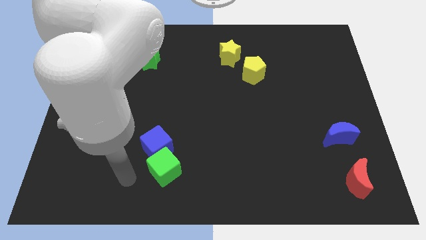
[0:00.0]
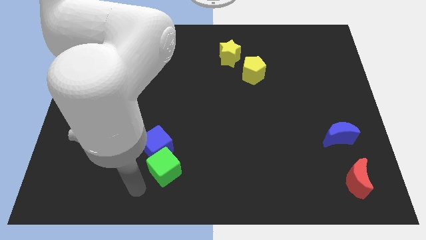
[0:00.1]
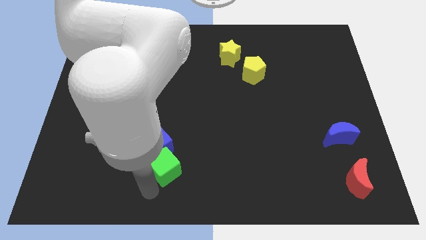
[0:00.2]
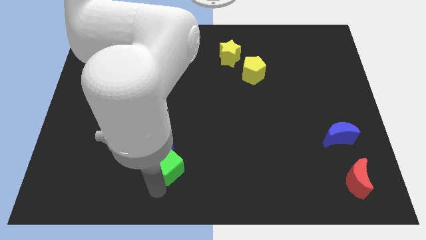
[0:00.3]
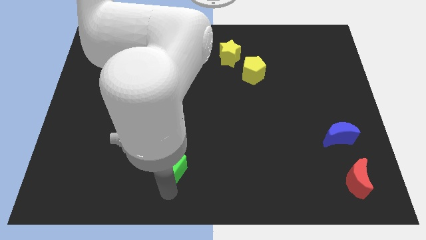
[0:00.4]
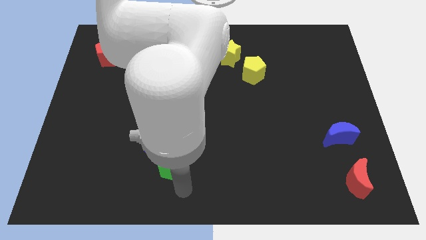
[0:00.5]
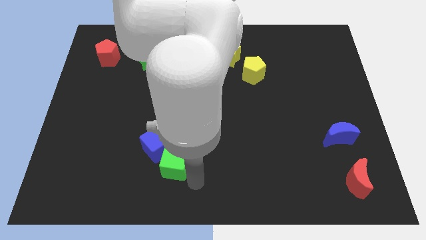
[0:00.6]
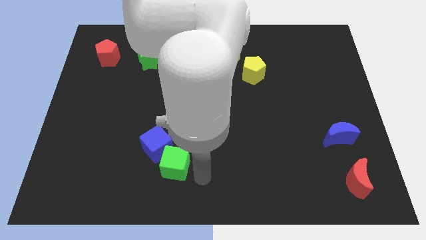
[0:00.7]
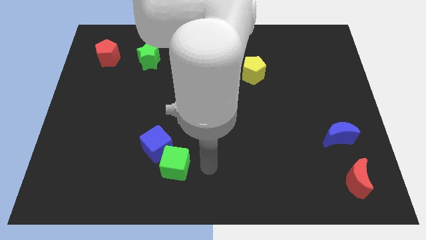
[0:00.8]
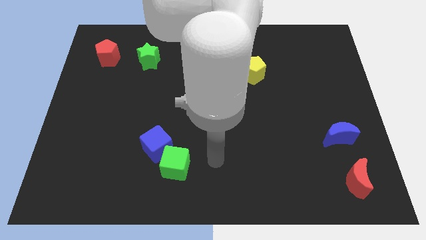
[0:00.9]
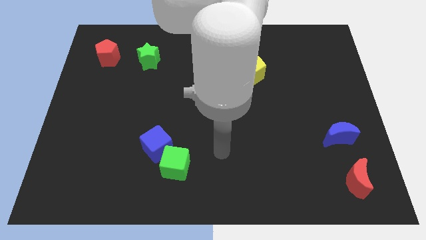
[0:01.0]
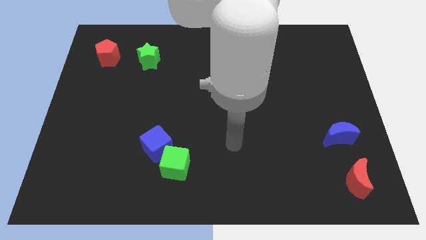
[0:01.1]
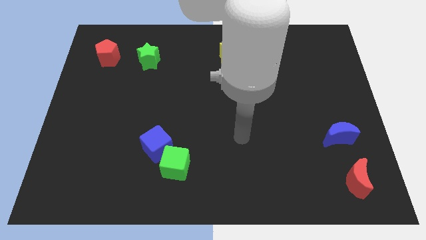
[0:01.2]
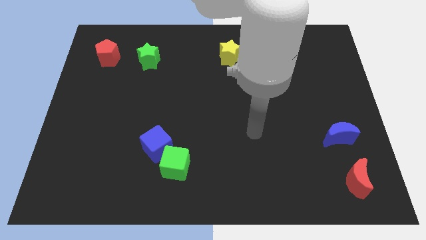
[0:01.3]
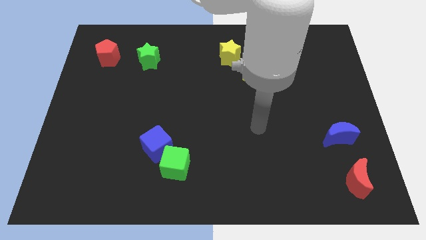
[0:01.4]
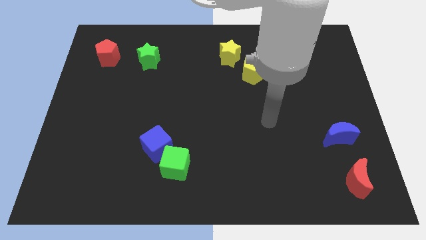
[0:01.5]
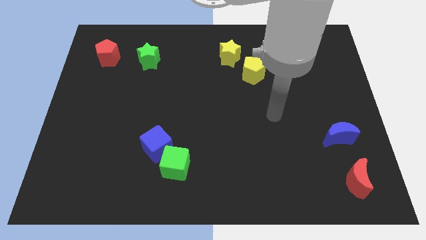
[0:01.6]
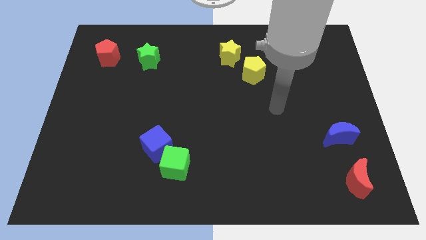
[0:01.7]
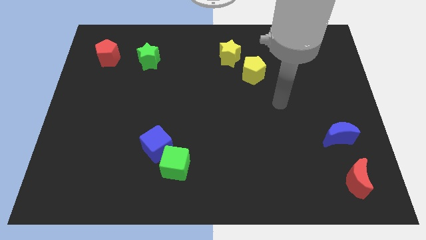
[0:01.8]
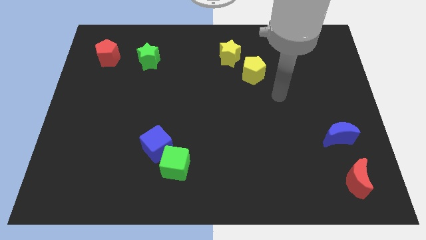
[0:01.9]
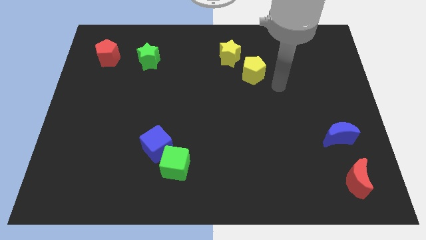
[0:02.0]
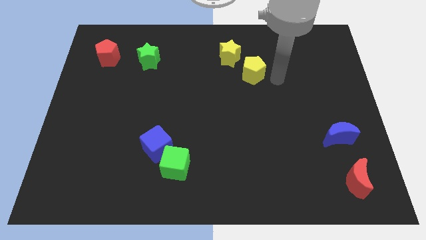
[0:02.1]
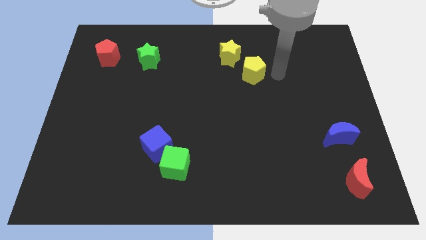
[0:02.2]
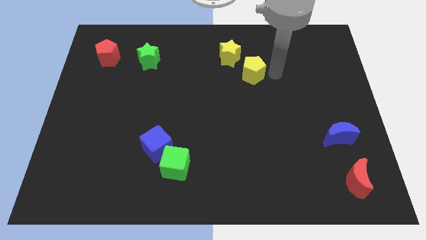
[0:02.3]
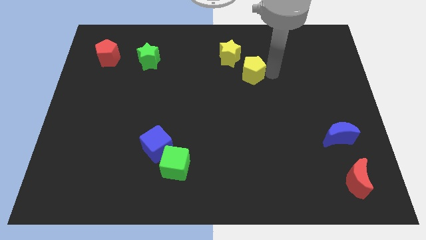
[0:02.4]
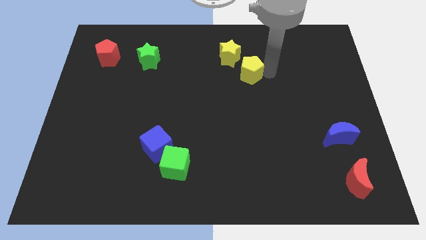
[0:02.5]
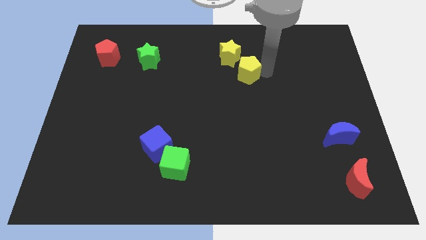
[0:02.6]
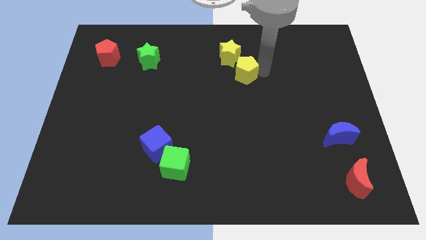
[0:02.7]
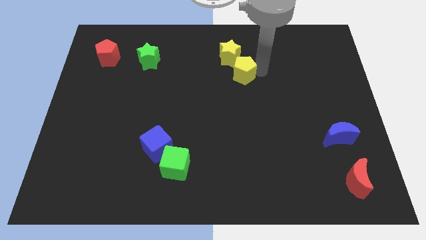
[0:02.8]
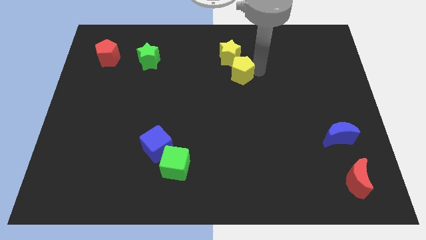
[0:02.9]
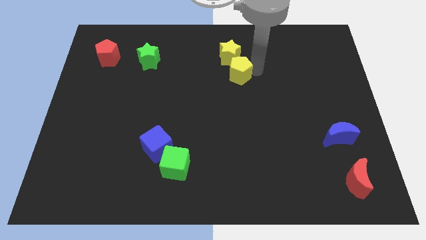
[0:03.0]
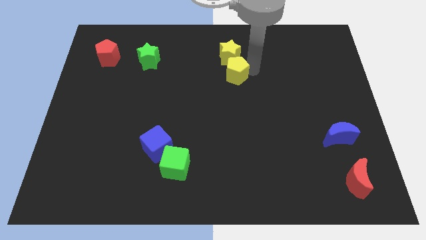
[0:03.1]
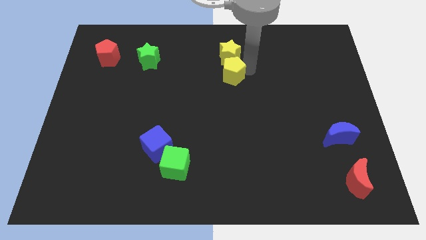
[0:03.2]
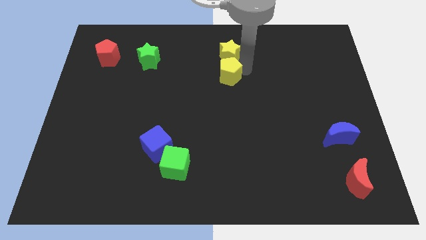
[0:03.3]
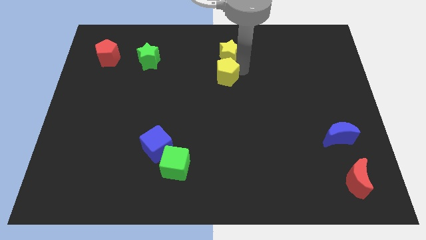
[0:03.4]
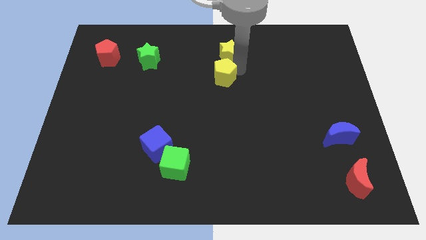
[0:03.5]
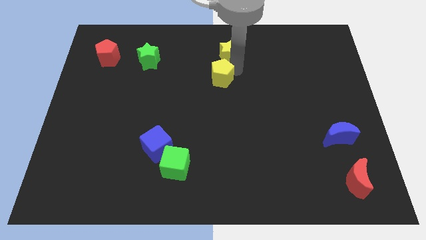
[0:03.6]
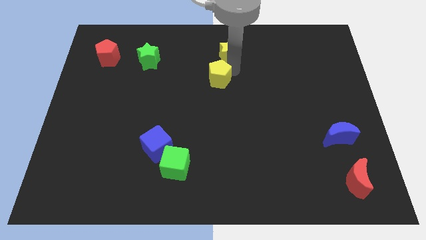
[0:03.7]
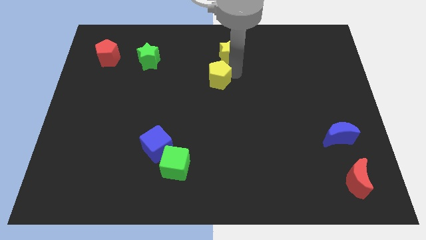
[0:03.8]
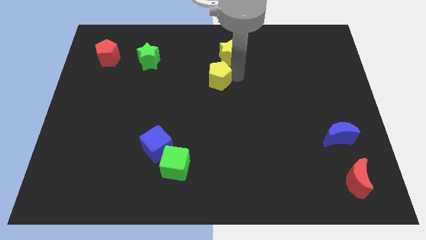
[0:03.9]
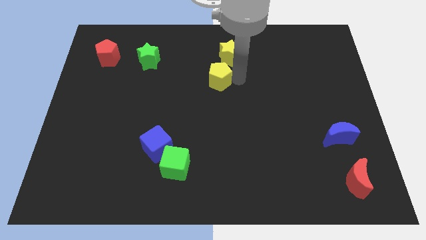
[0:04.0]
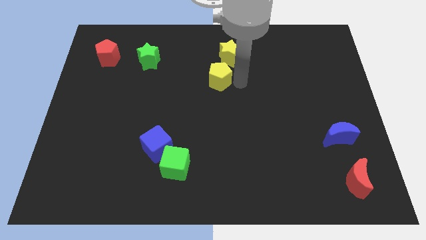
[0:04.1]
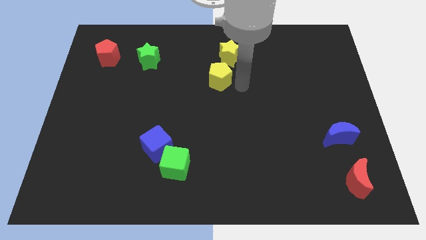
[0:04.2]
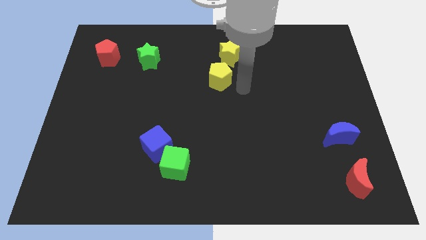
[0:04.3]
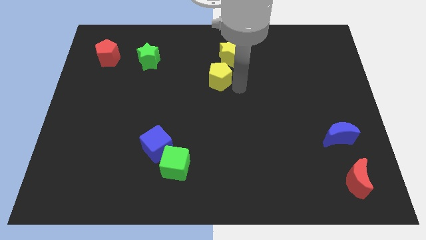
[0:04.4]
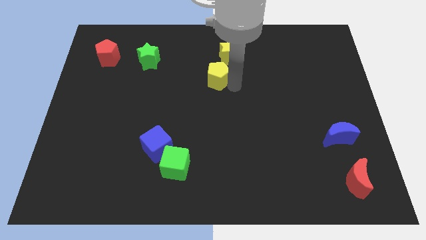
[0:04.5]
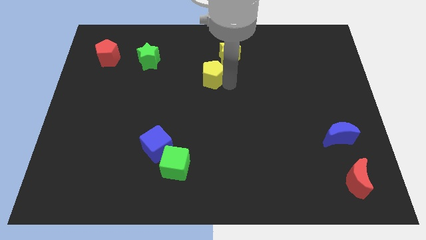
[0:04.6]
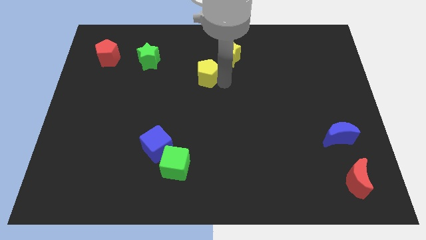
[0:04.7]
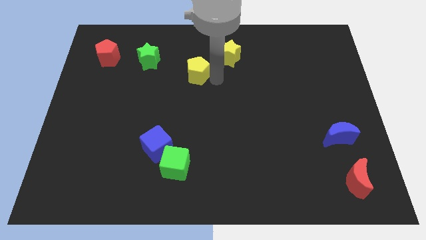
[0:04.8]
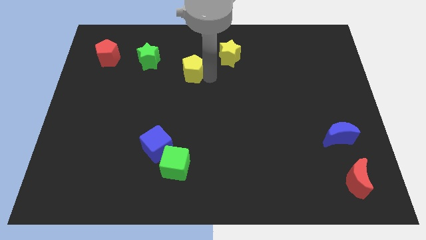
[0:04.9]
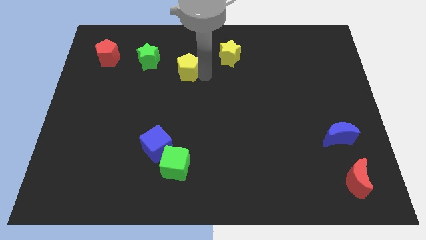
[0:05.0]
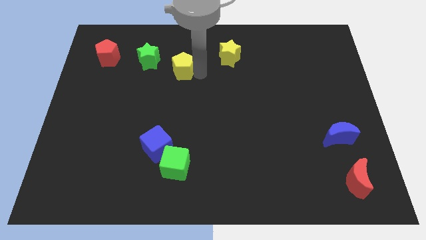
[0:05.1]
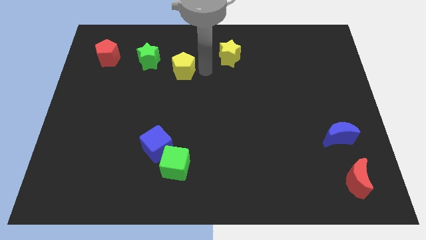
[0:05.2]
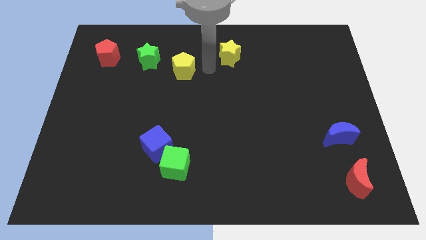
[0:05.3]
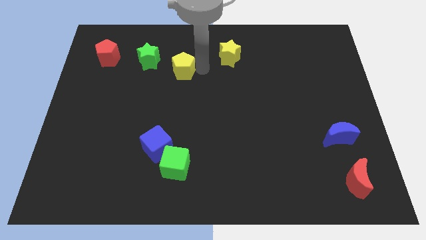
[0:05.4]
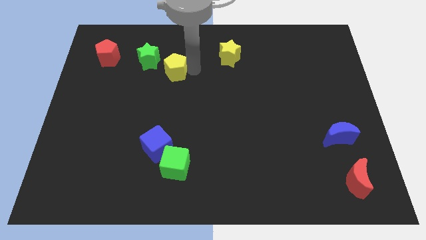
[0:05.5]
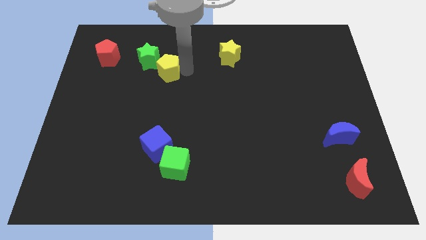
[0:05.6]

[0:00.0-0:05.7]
slide the yellow pentagon to the left

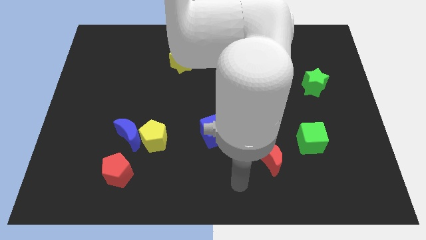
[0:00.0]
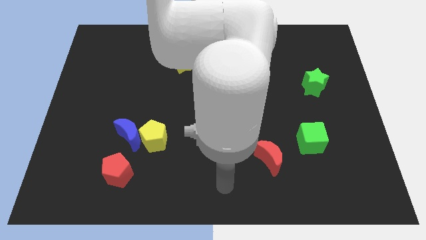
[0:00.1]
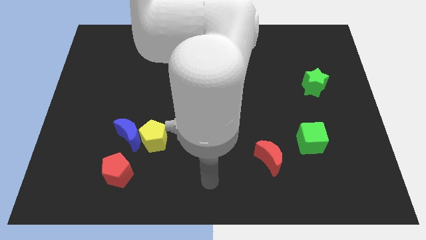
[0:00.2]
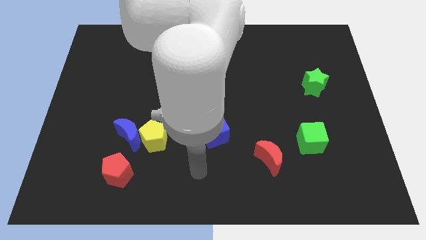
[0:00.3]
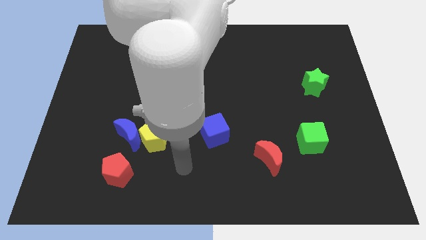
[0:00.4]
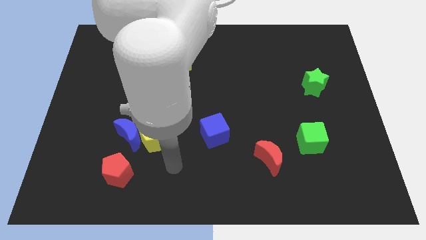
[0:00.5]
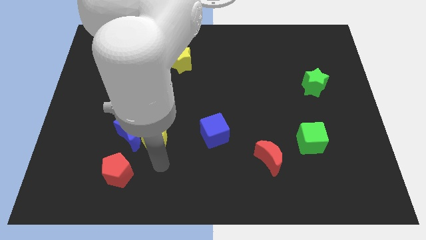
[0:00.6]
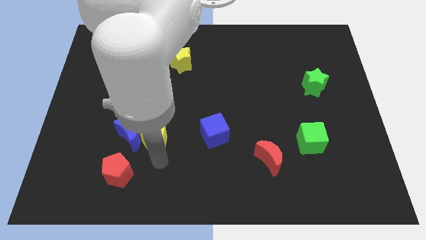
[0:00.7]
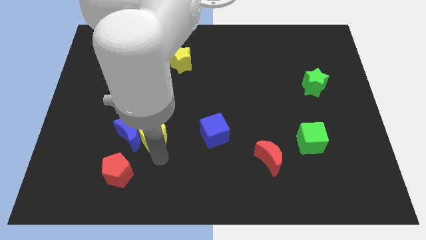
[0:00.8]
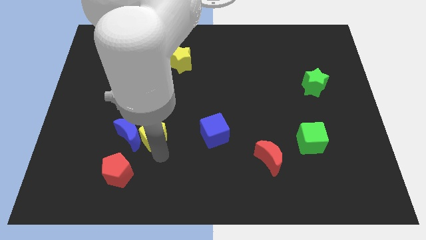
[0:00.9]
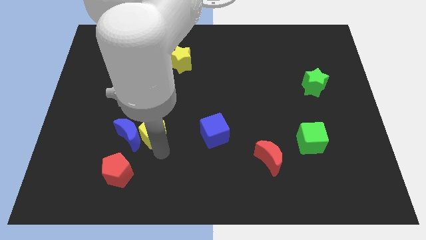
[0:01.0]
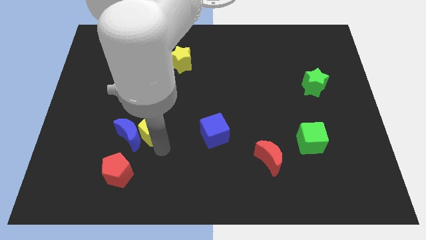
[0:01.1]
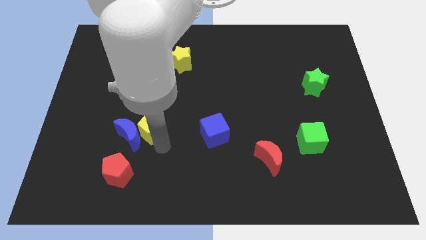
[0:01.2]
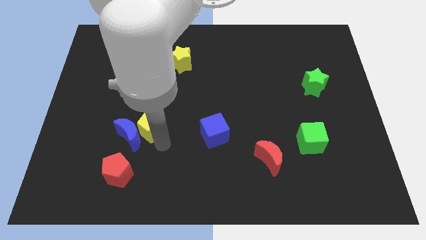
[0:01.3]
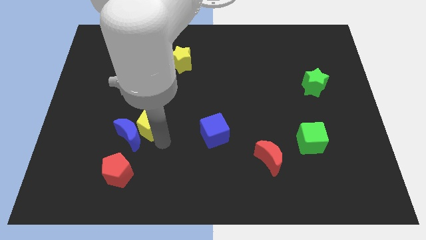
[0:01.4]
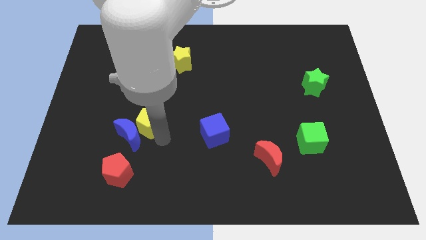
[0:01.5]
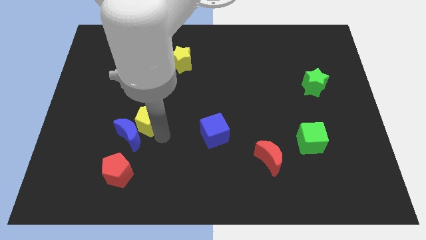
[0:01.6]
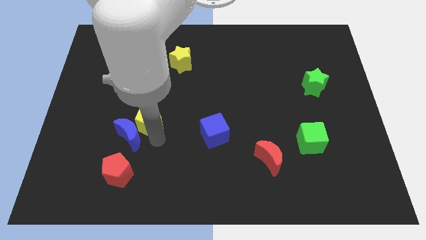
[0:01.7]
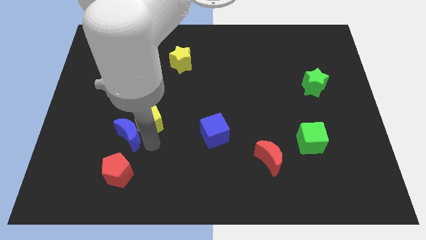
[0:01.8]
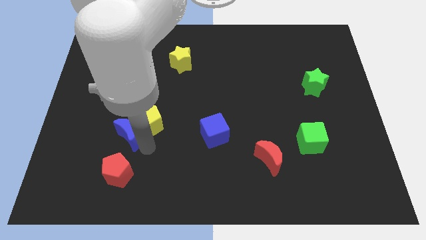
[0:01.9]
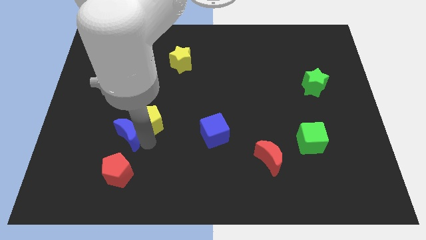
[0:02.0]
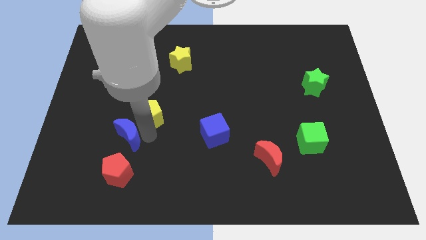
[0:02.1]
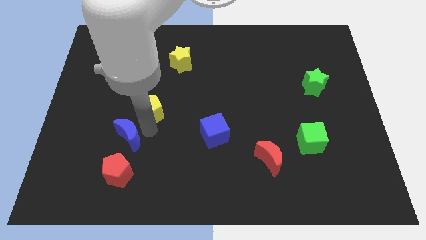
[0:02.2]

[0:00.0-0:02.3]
push the yellow pentagon a bit upwards
